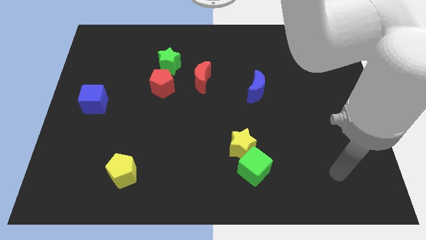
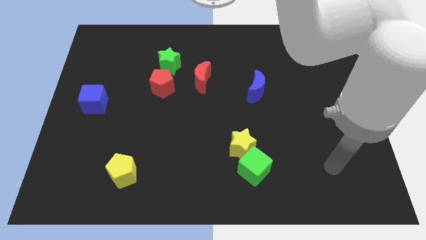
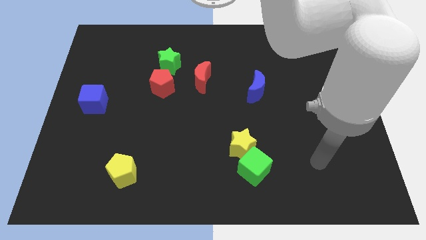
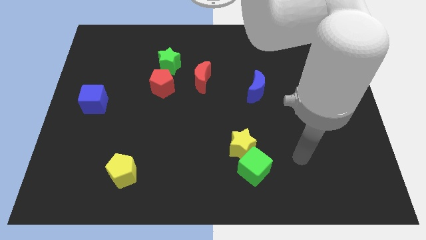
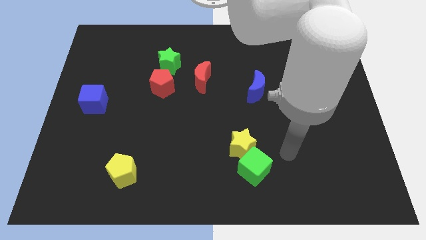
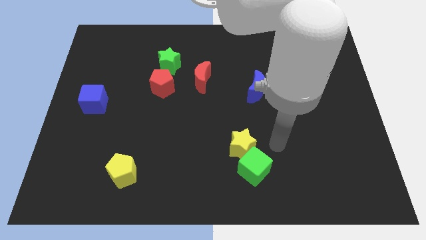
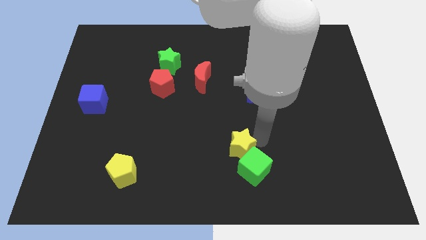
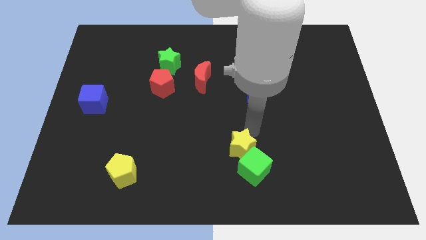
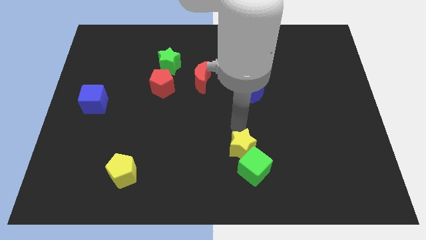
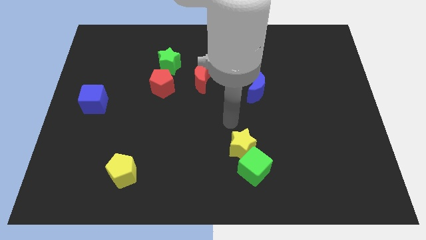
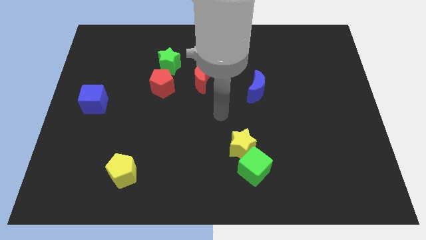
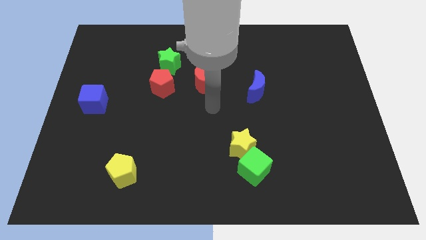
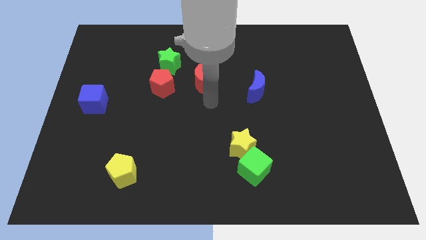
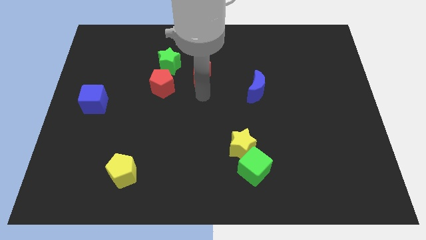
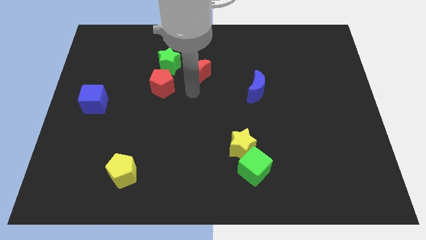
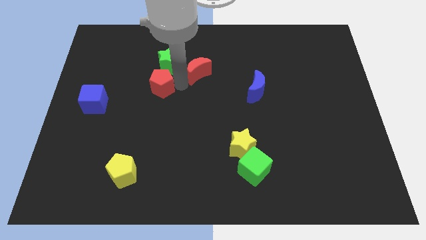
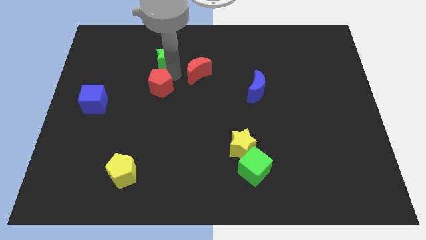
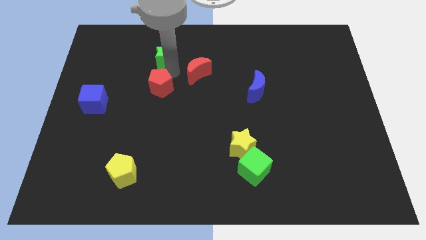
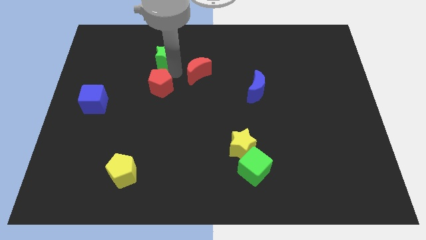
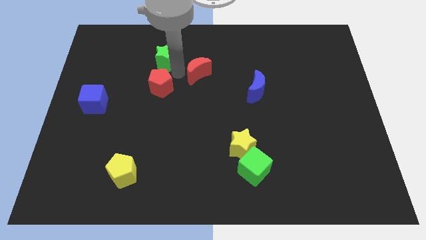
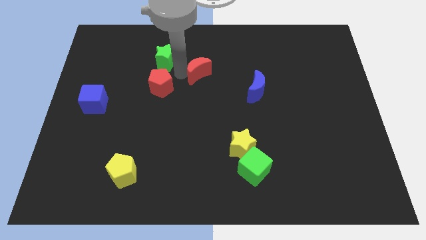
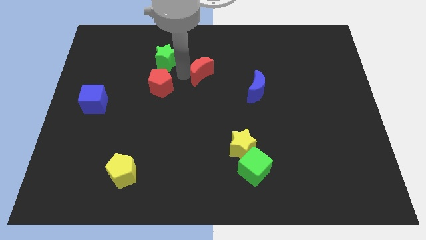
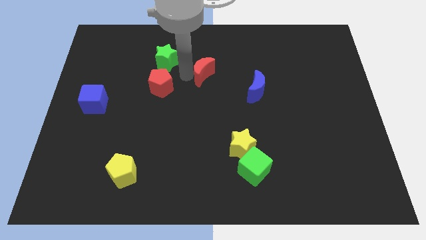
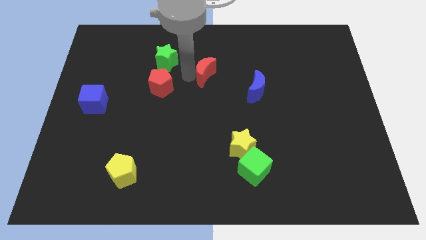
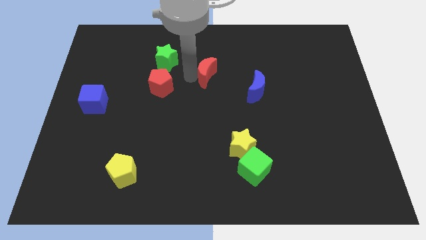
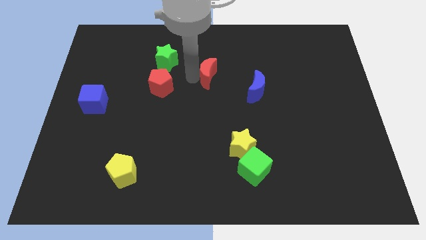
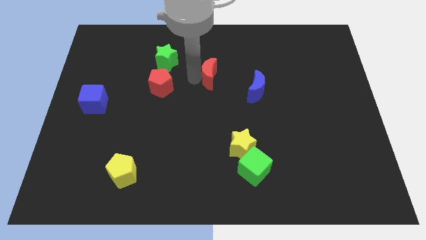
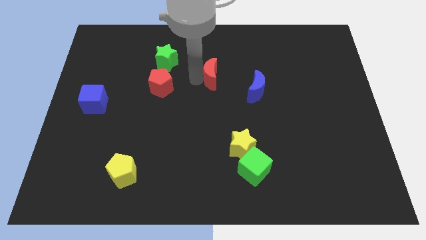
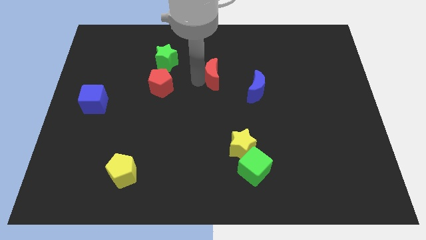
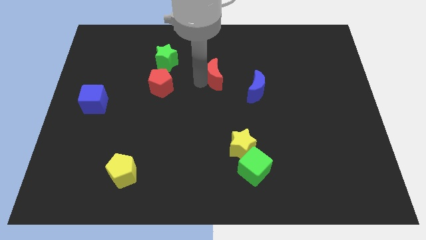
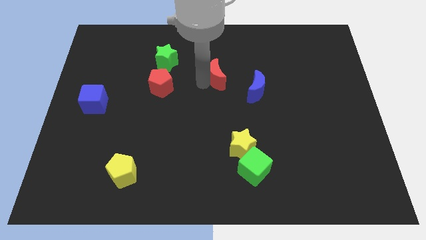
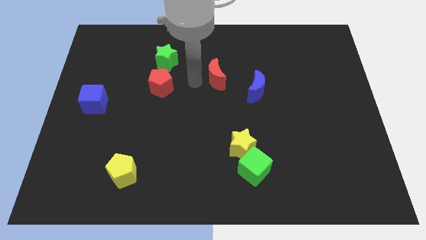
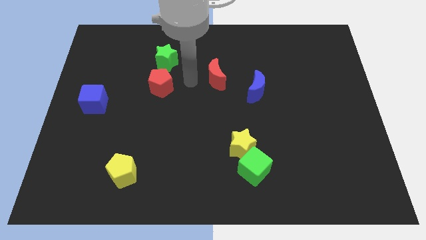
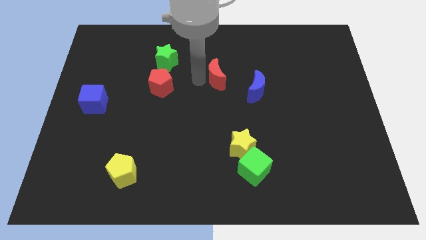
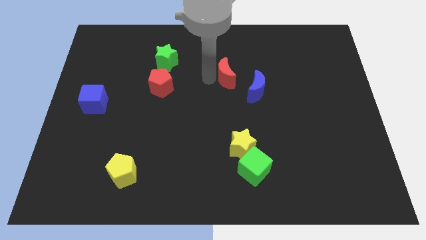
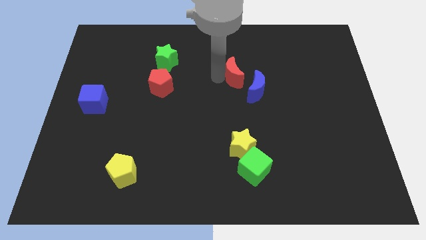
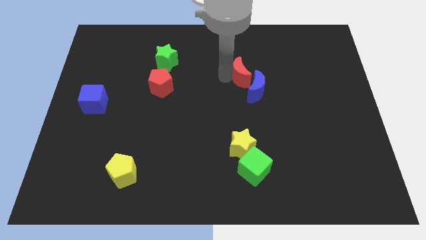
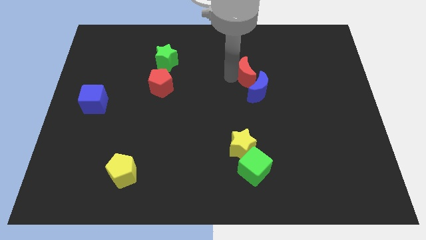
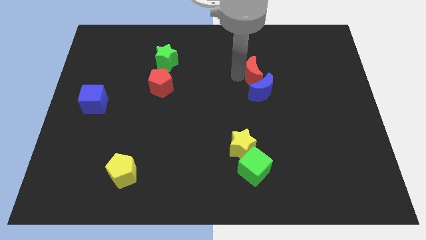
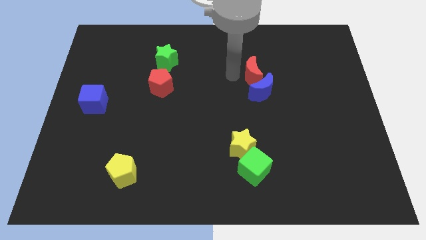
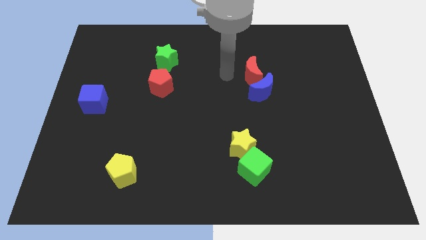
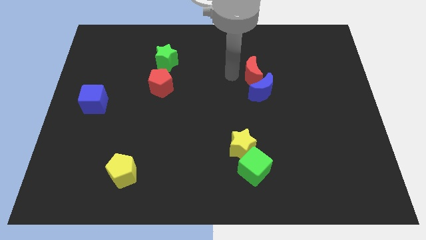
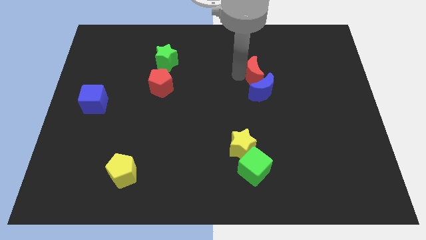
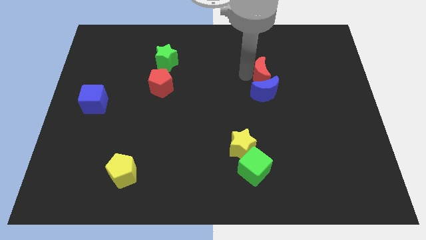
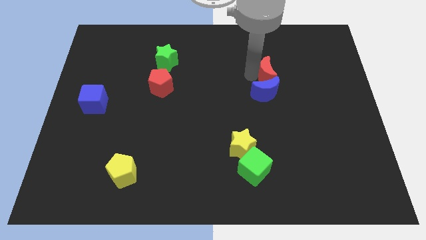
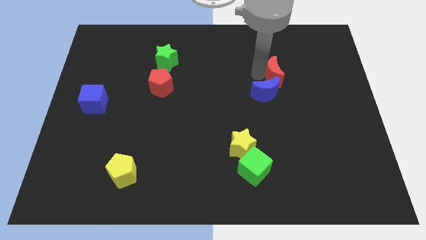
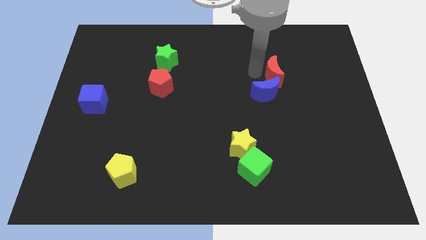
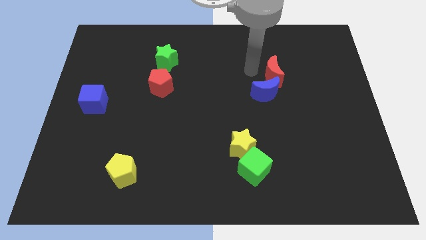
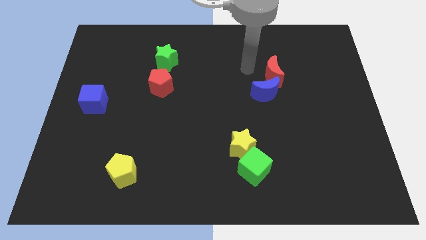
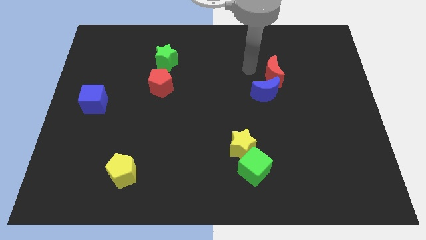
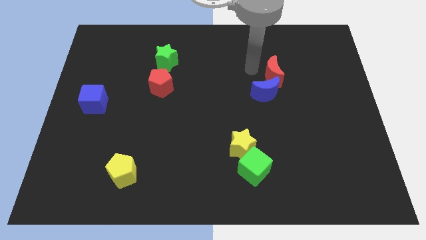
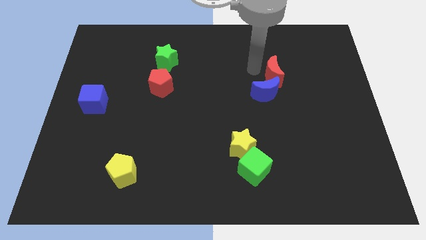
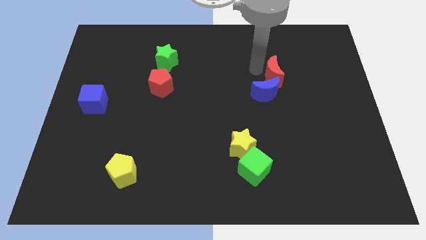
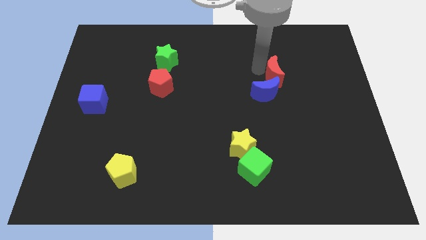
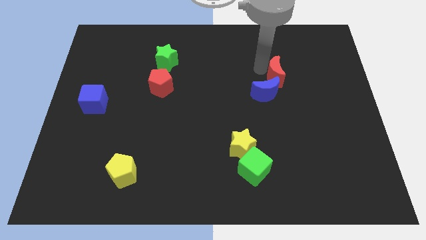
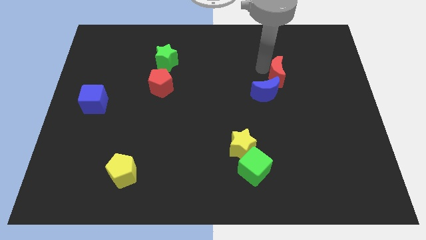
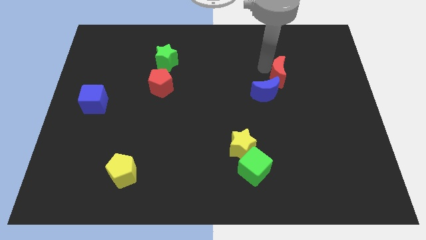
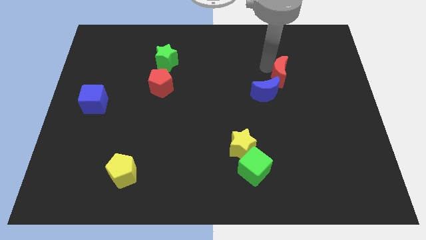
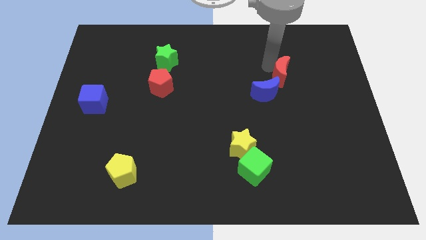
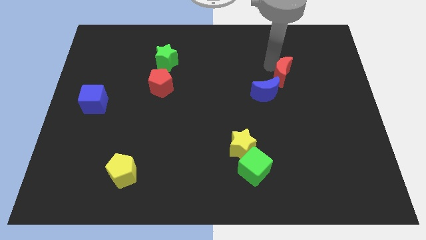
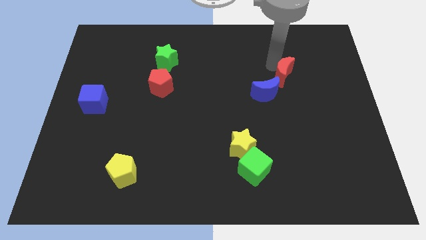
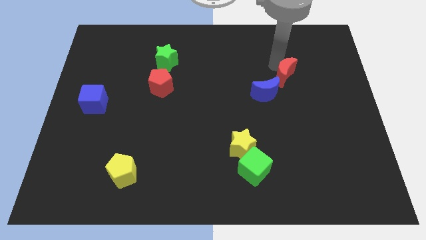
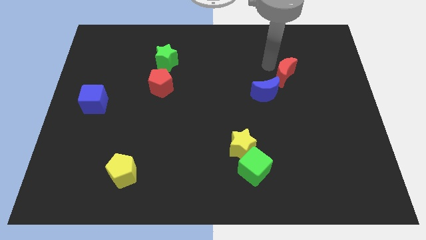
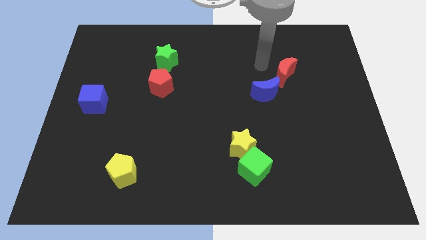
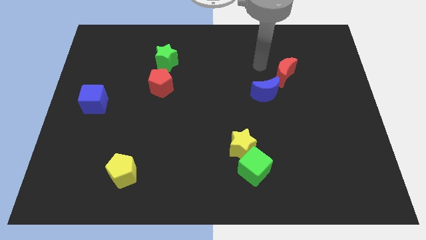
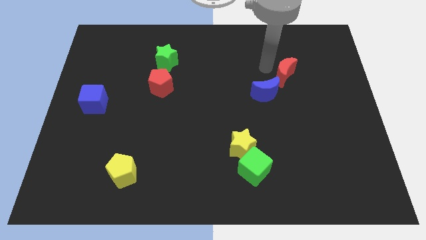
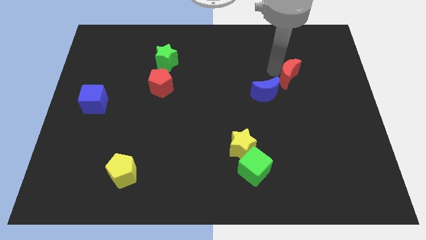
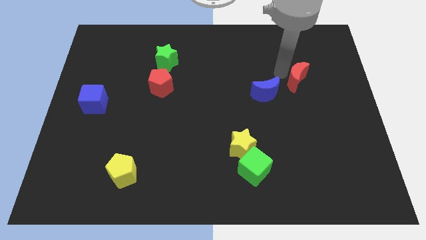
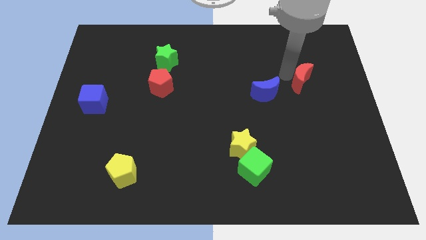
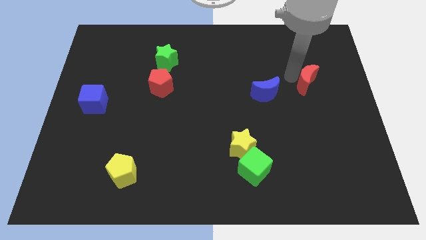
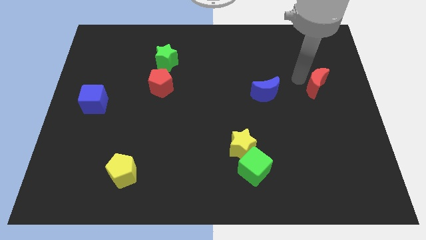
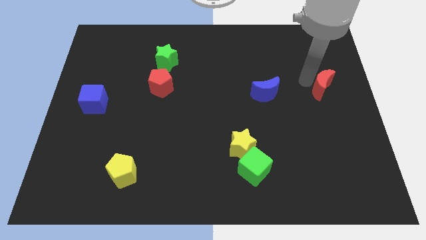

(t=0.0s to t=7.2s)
move the red moon to the center right
